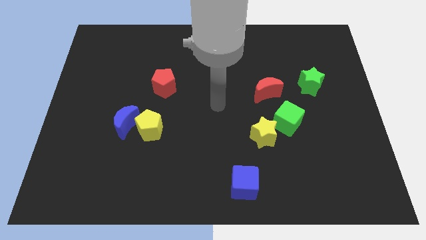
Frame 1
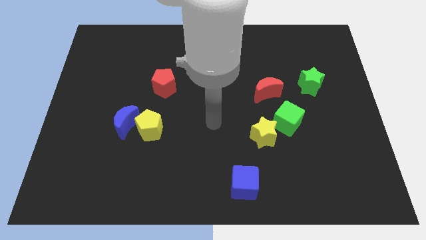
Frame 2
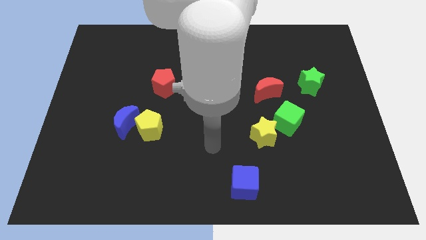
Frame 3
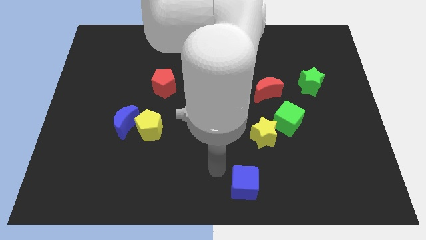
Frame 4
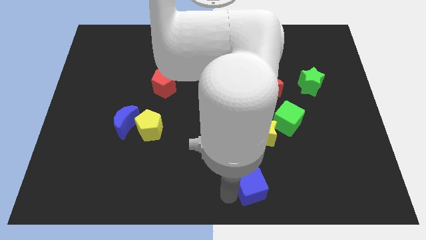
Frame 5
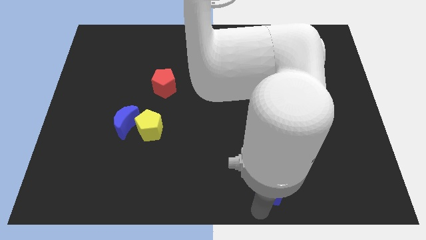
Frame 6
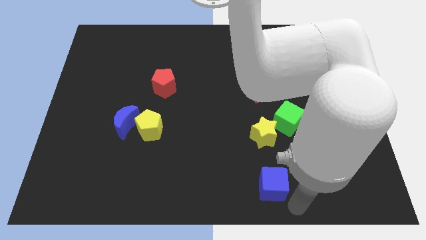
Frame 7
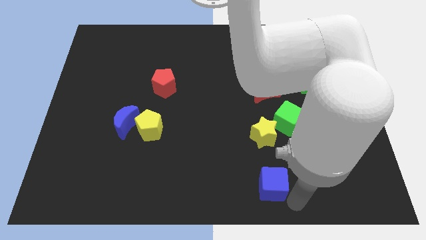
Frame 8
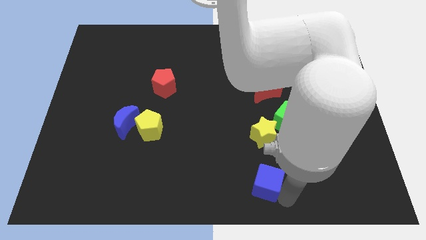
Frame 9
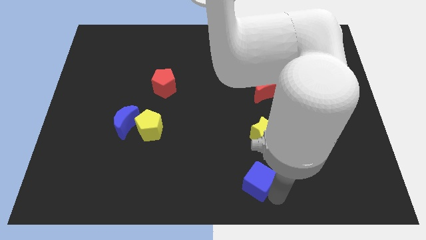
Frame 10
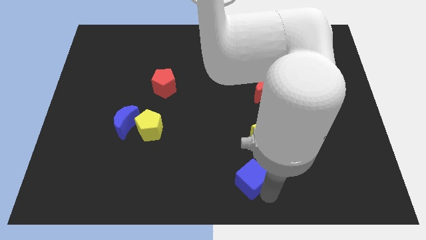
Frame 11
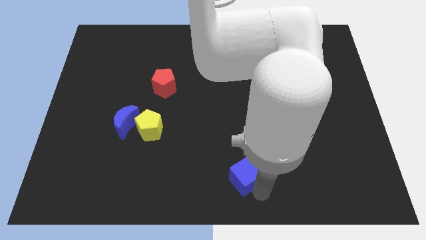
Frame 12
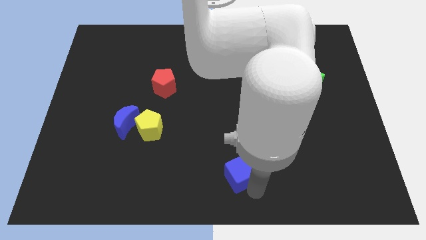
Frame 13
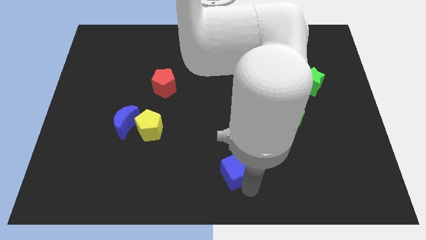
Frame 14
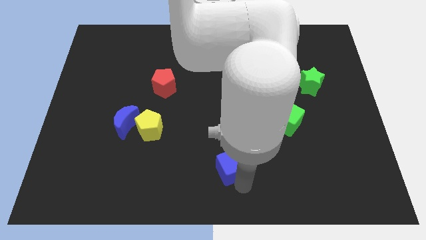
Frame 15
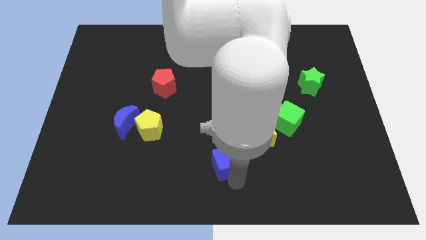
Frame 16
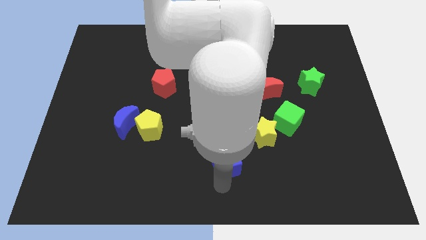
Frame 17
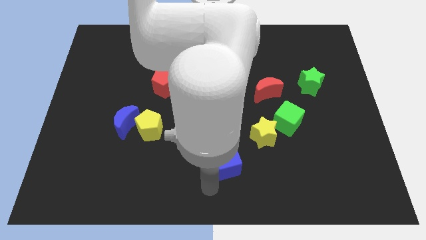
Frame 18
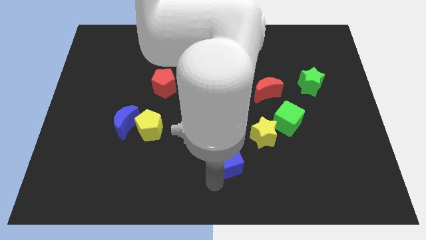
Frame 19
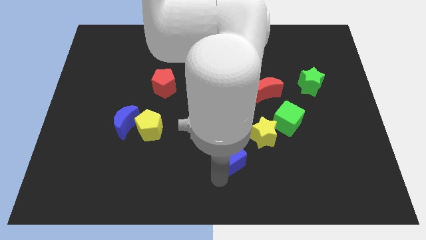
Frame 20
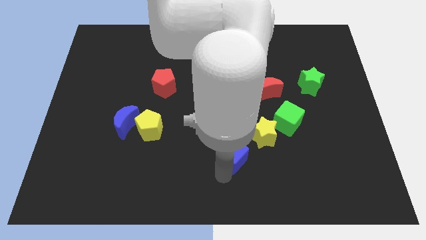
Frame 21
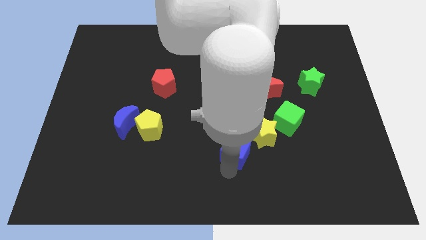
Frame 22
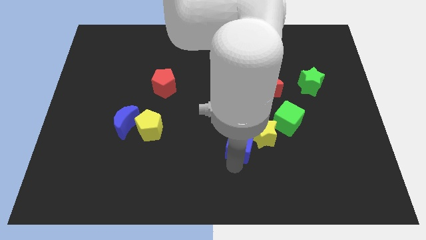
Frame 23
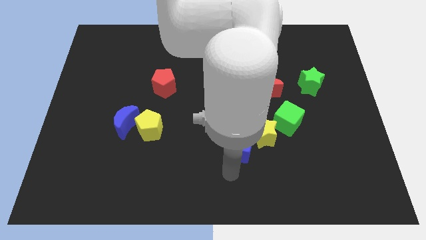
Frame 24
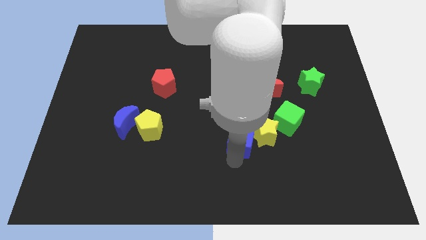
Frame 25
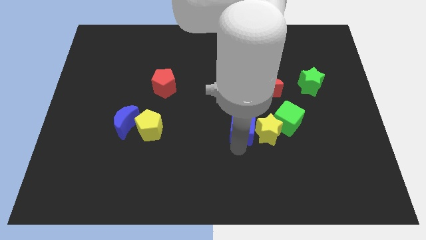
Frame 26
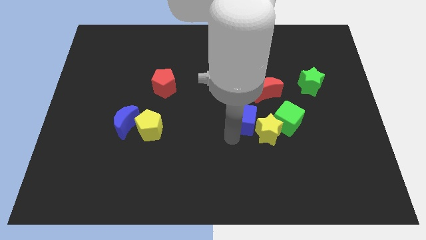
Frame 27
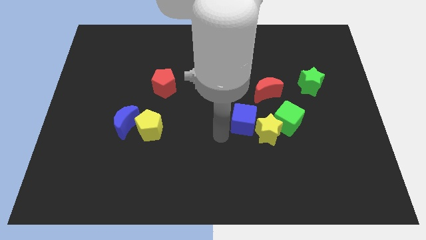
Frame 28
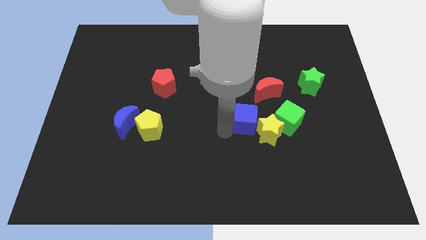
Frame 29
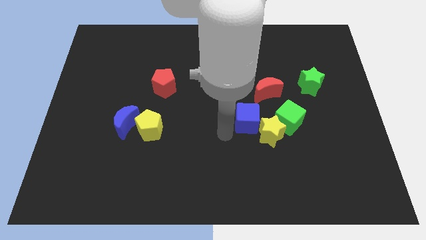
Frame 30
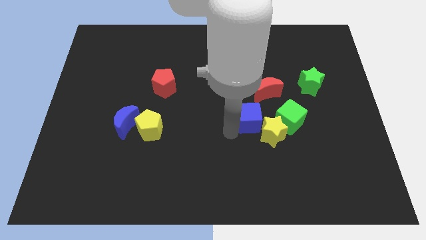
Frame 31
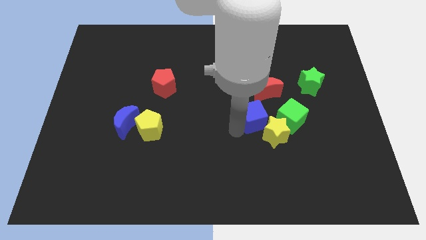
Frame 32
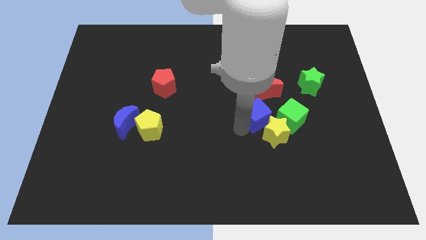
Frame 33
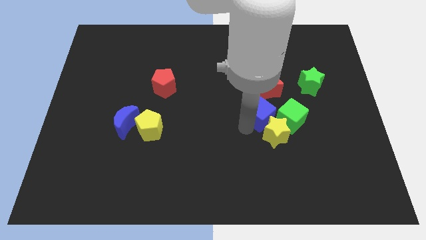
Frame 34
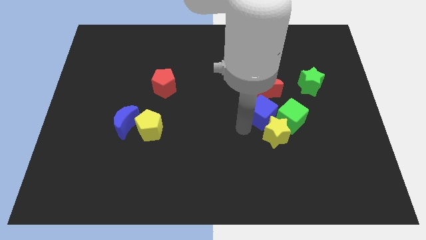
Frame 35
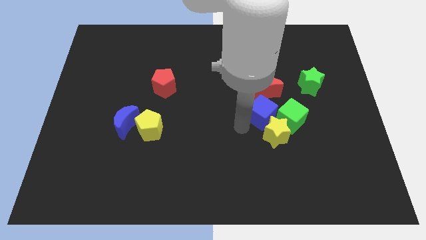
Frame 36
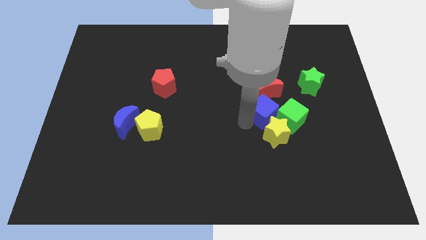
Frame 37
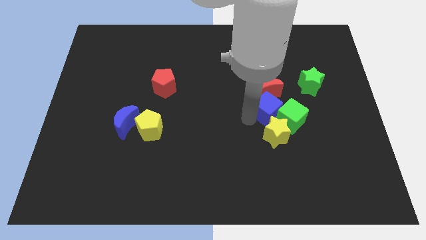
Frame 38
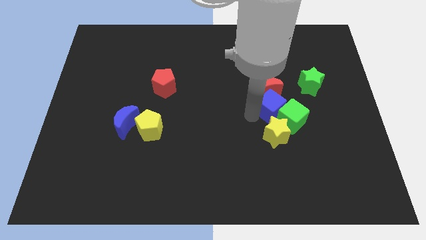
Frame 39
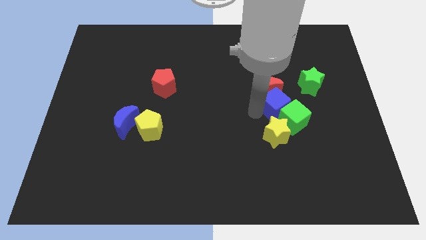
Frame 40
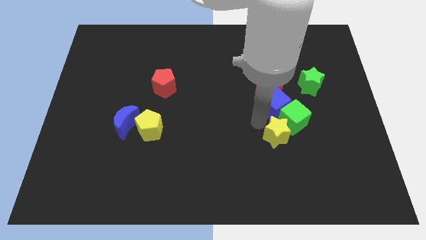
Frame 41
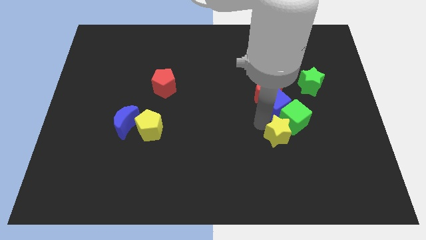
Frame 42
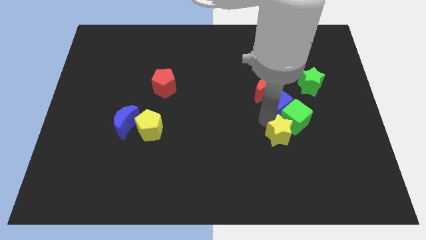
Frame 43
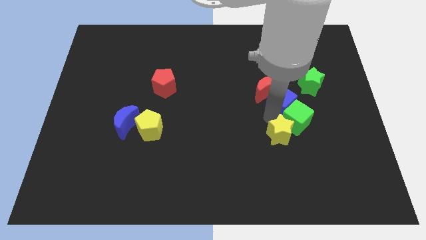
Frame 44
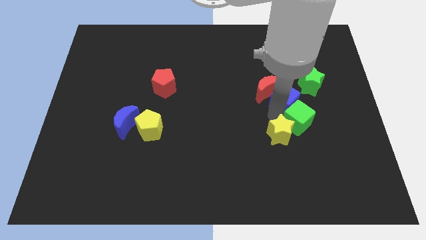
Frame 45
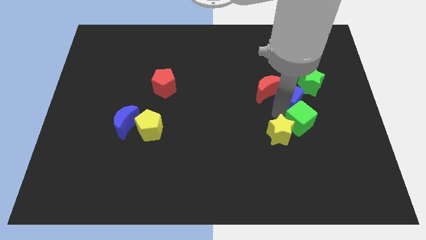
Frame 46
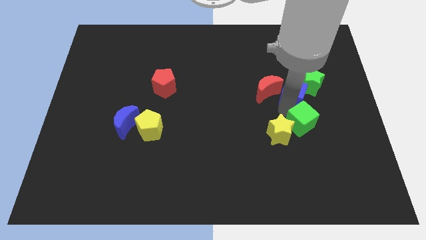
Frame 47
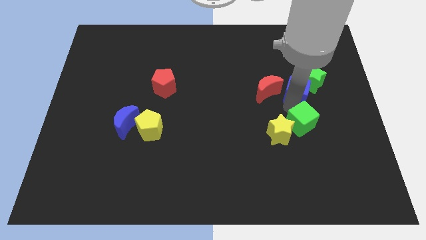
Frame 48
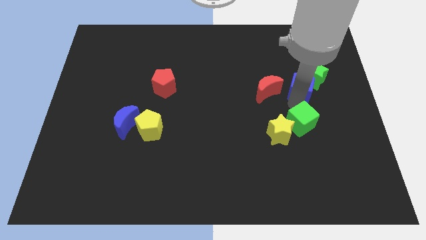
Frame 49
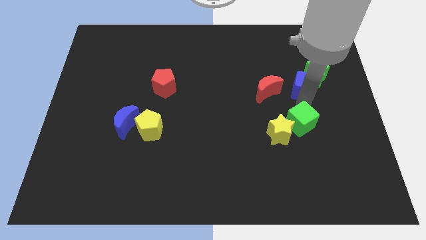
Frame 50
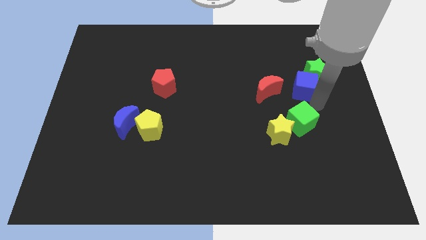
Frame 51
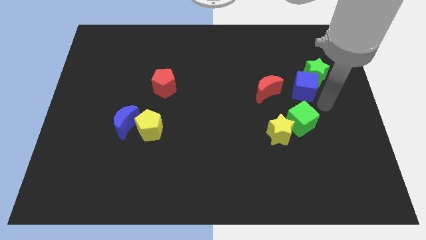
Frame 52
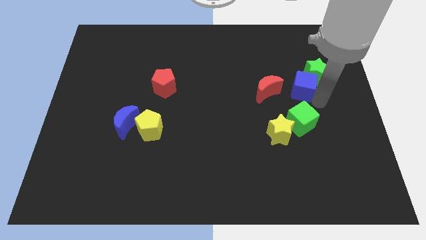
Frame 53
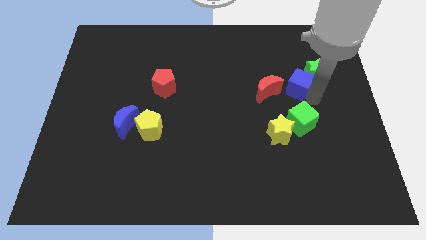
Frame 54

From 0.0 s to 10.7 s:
put the blue cube diagonally up and to the right of the red moon

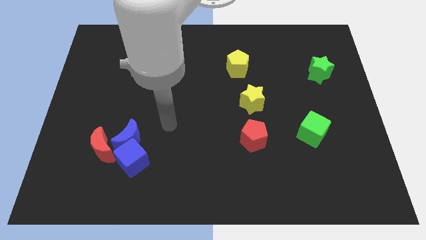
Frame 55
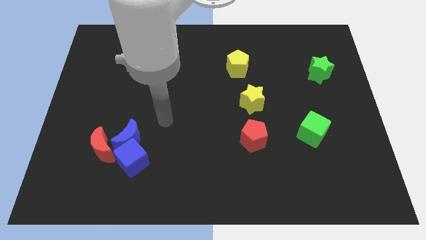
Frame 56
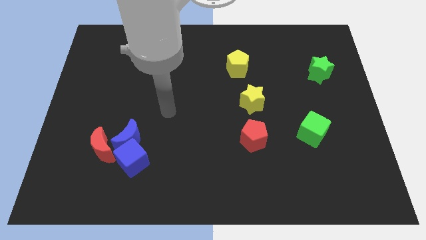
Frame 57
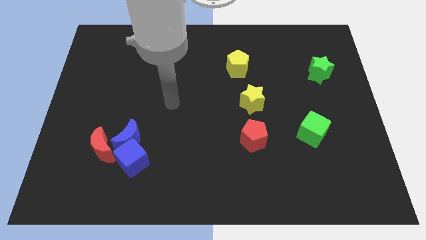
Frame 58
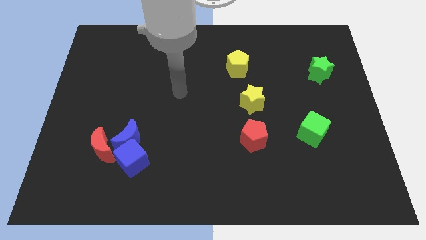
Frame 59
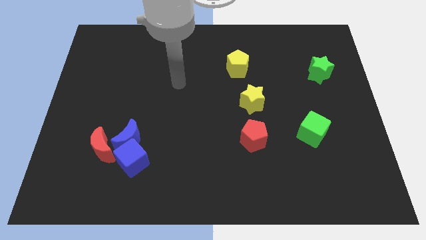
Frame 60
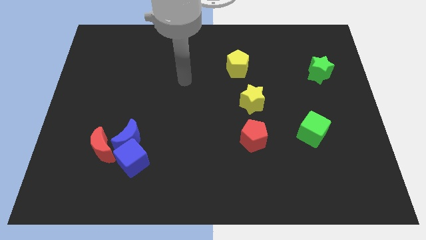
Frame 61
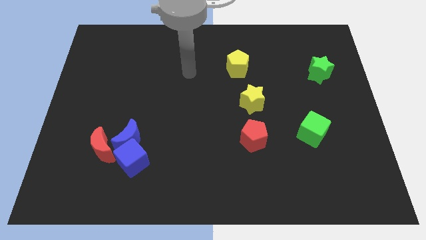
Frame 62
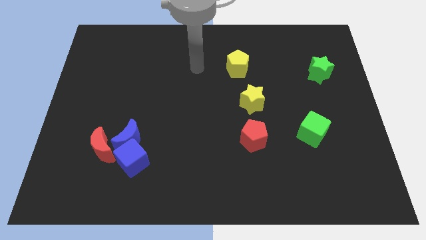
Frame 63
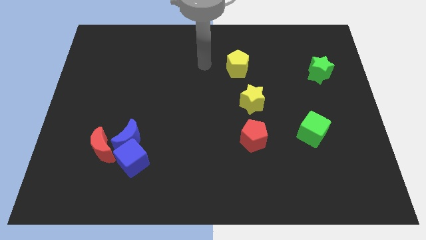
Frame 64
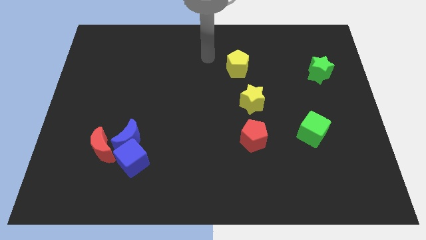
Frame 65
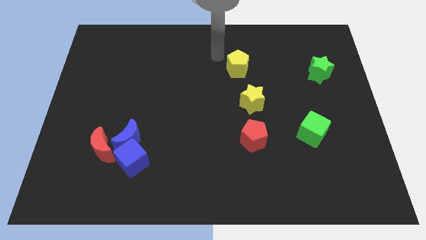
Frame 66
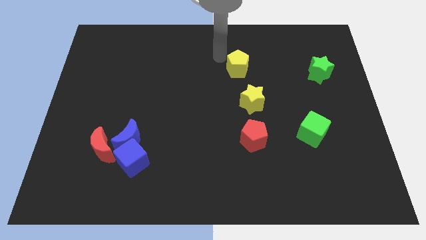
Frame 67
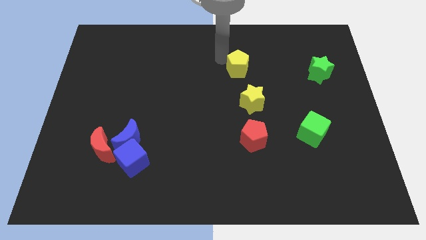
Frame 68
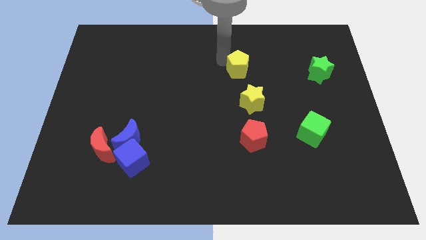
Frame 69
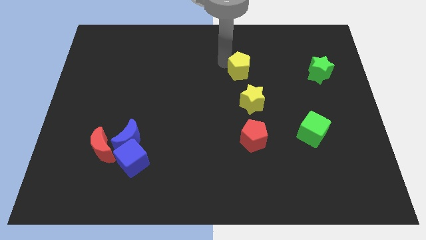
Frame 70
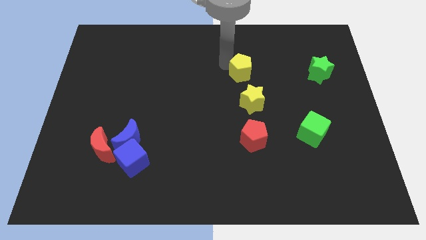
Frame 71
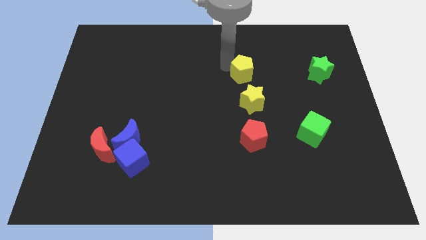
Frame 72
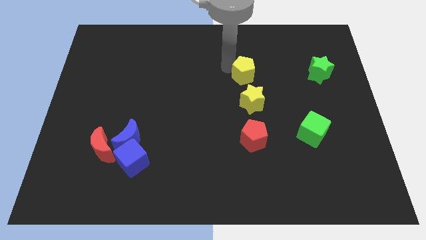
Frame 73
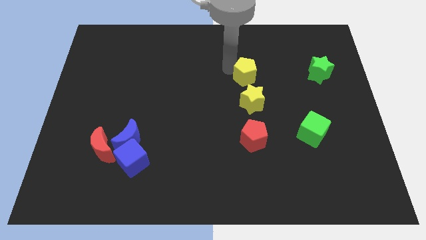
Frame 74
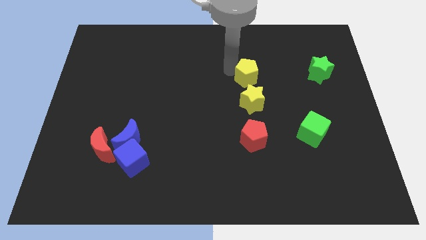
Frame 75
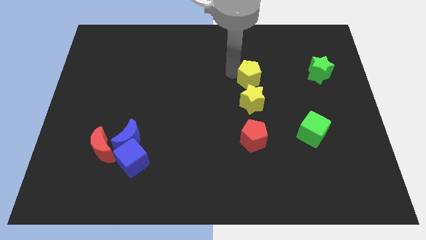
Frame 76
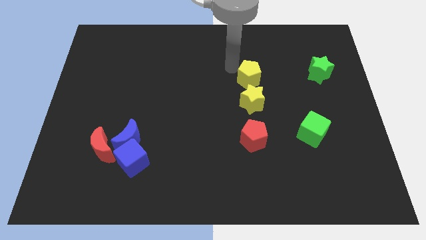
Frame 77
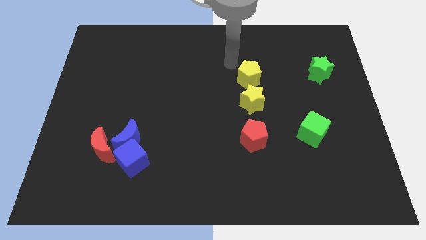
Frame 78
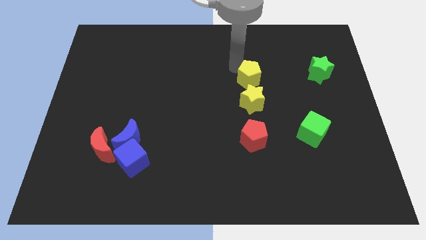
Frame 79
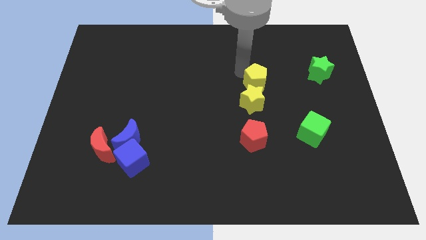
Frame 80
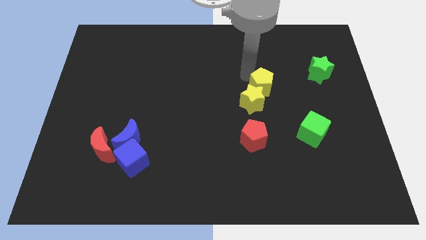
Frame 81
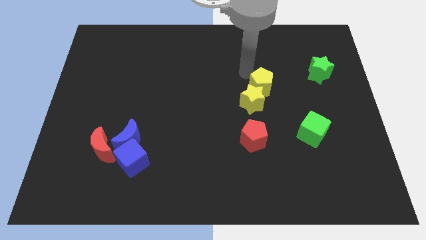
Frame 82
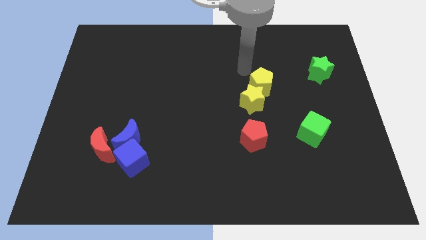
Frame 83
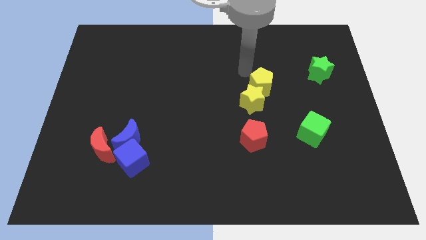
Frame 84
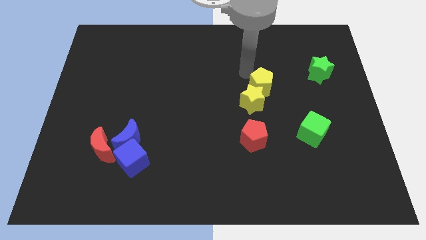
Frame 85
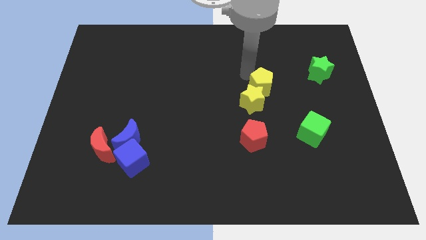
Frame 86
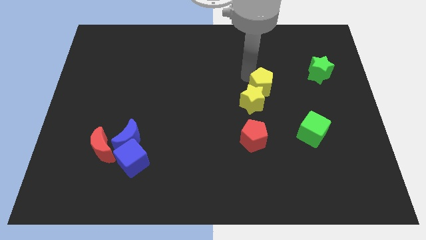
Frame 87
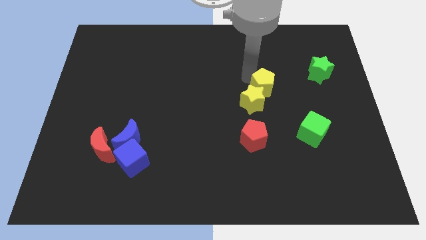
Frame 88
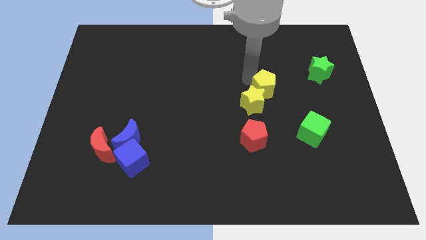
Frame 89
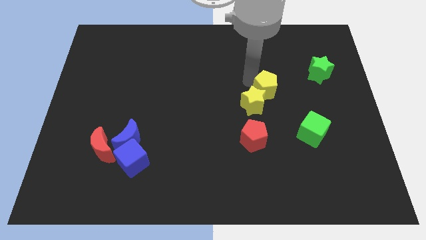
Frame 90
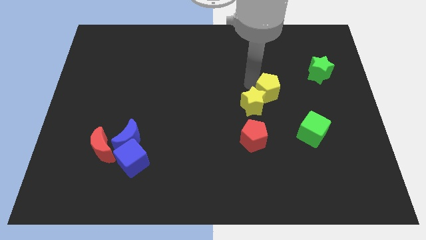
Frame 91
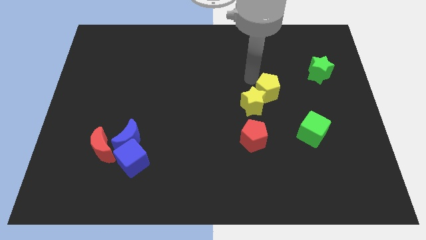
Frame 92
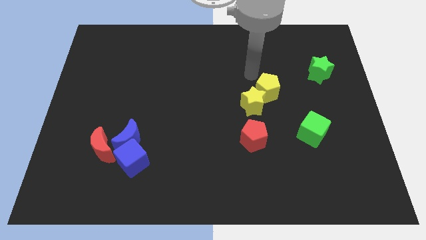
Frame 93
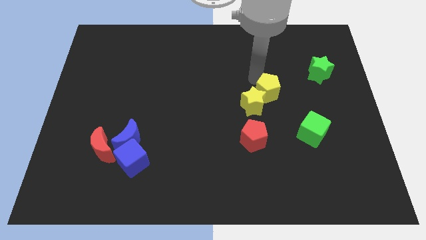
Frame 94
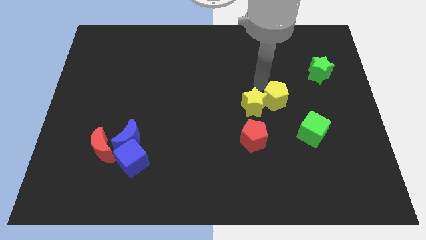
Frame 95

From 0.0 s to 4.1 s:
put the yellow pentagon to the top left of the green cube
